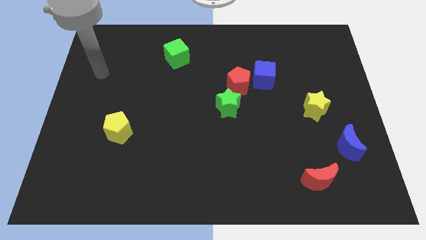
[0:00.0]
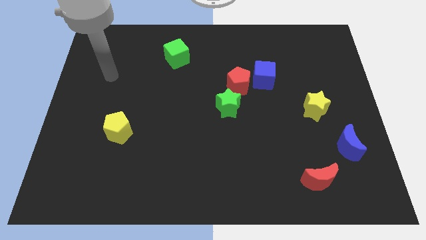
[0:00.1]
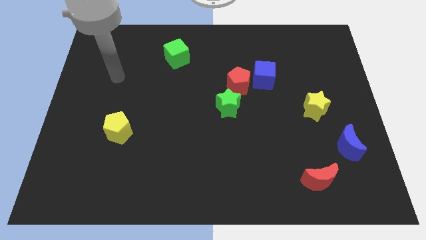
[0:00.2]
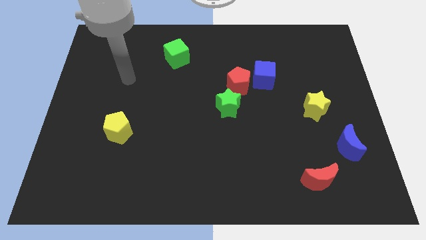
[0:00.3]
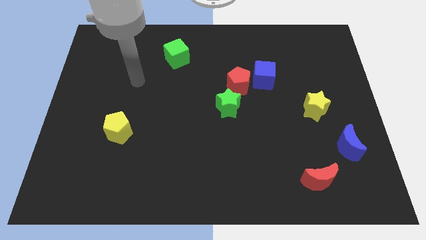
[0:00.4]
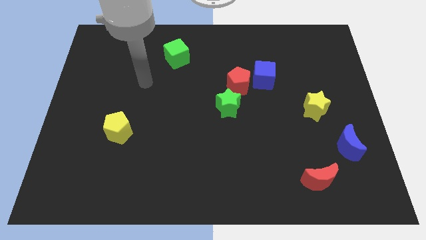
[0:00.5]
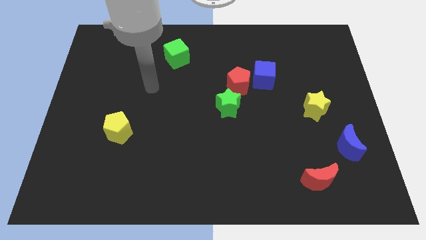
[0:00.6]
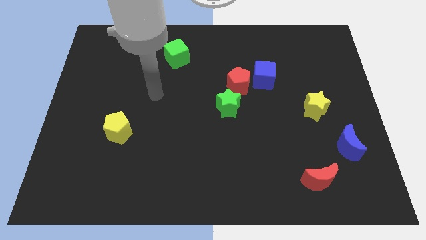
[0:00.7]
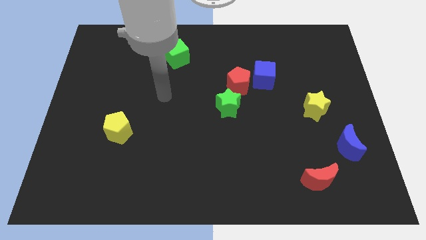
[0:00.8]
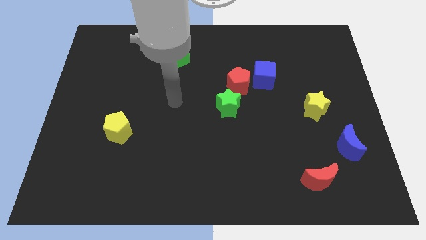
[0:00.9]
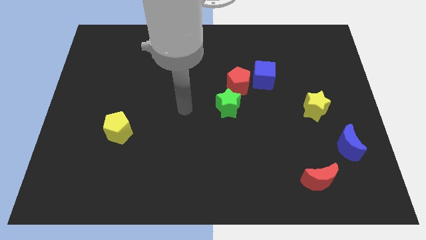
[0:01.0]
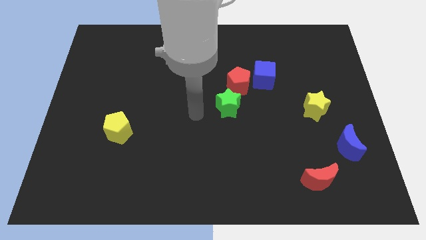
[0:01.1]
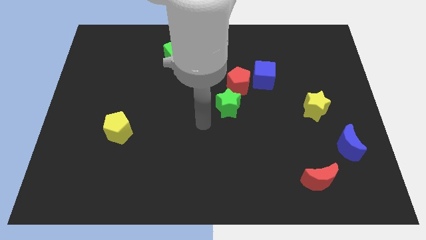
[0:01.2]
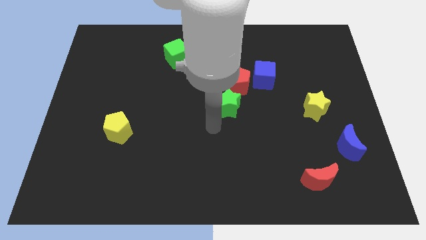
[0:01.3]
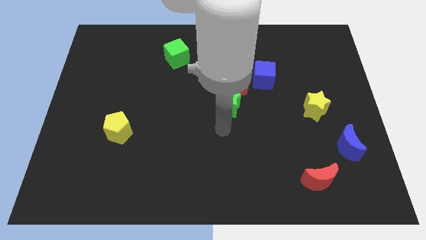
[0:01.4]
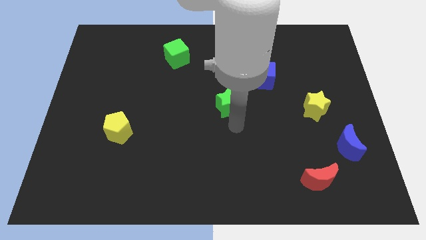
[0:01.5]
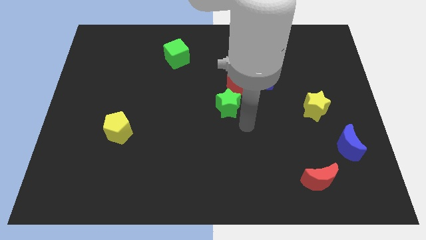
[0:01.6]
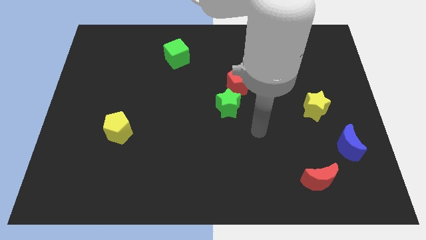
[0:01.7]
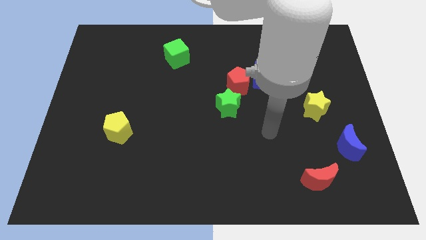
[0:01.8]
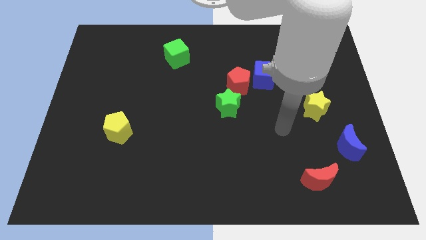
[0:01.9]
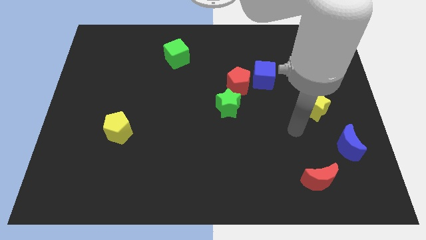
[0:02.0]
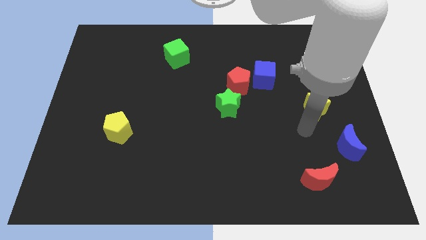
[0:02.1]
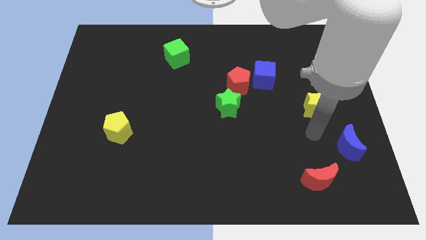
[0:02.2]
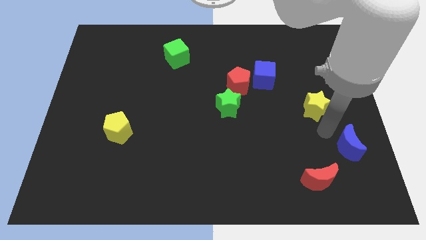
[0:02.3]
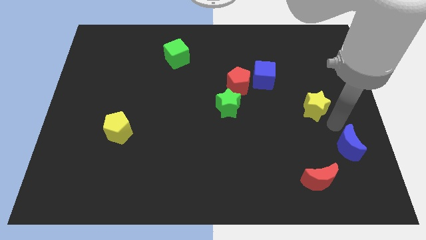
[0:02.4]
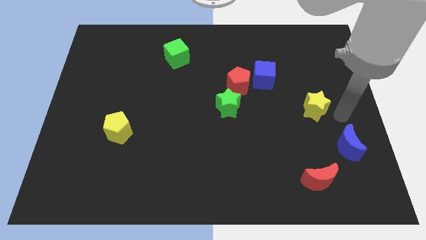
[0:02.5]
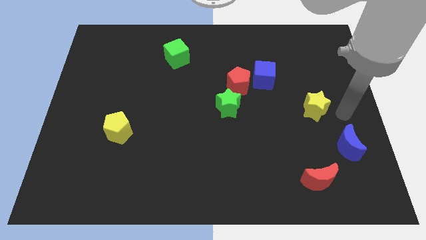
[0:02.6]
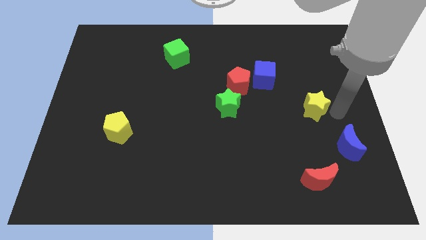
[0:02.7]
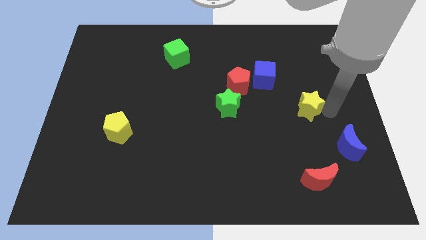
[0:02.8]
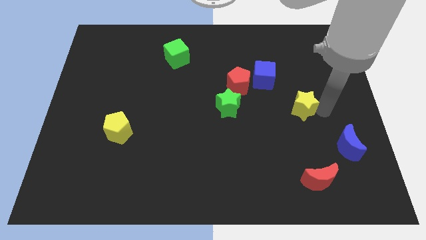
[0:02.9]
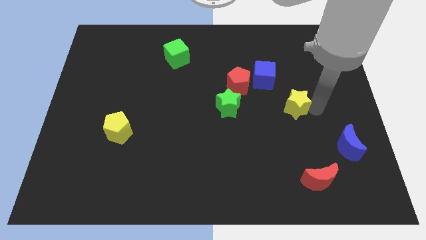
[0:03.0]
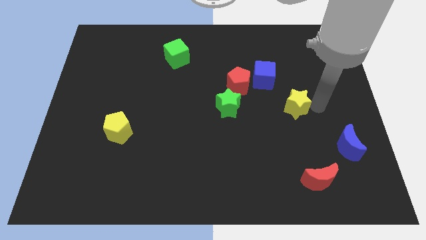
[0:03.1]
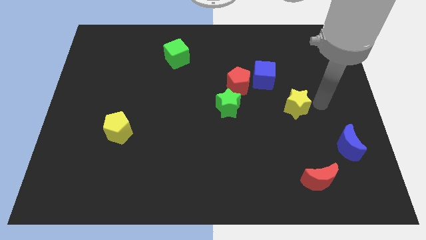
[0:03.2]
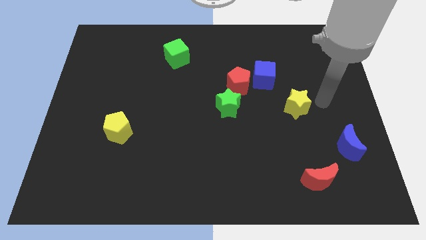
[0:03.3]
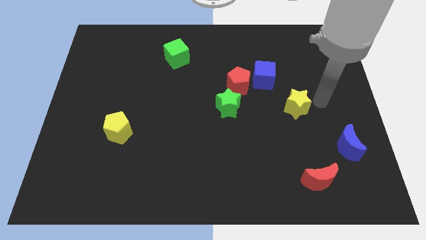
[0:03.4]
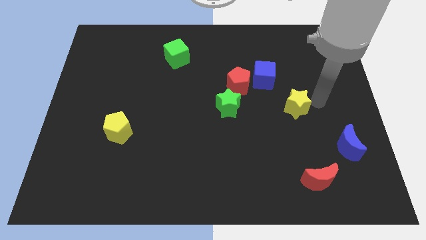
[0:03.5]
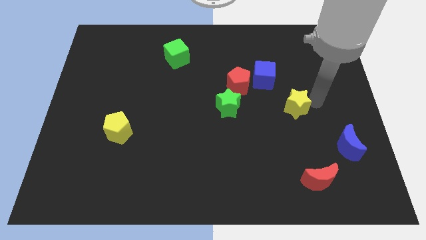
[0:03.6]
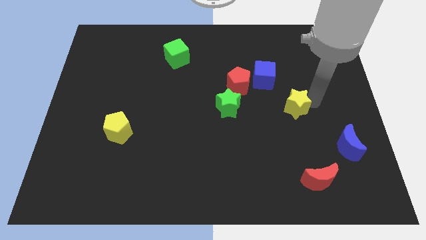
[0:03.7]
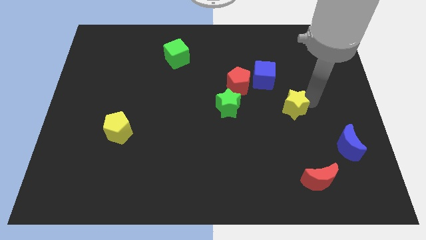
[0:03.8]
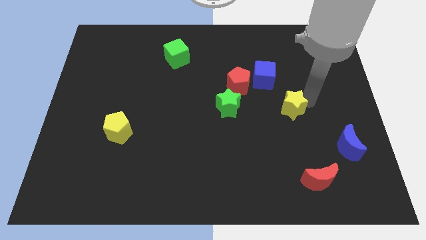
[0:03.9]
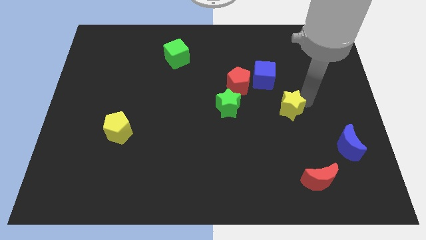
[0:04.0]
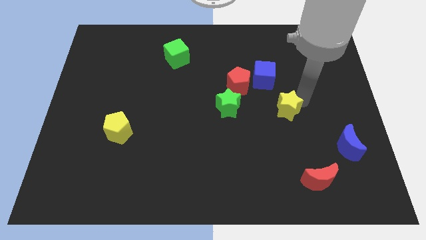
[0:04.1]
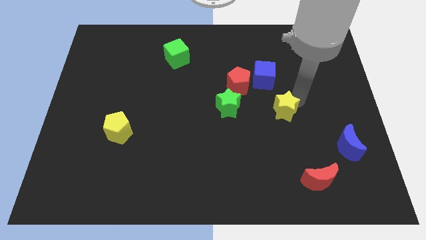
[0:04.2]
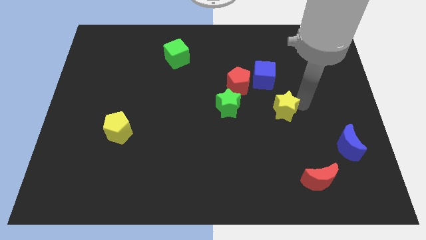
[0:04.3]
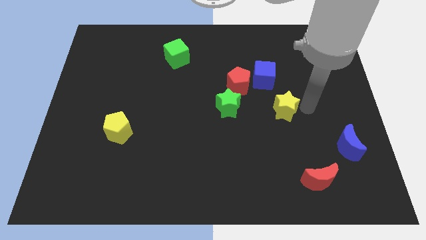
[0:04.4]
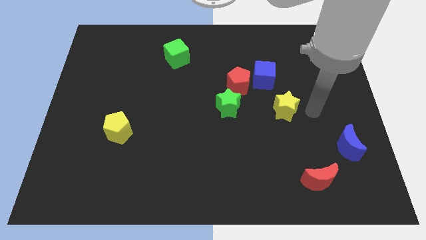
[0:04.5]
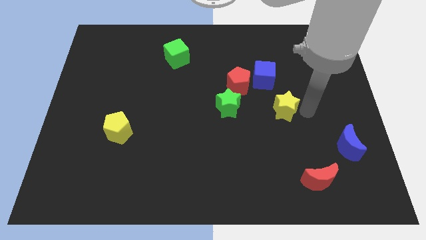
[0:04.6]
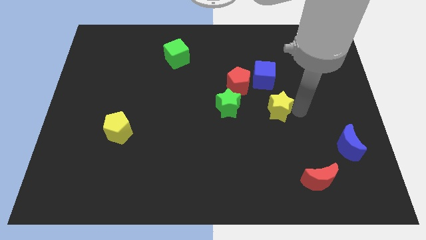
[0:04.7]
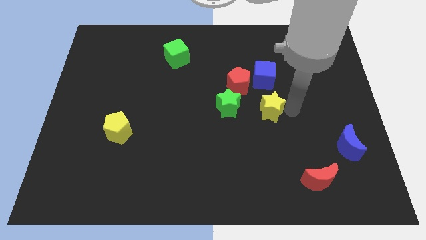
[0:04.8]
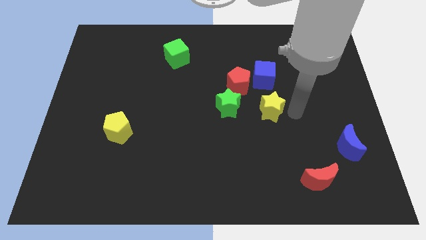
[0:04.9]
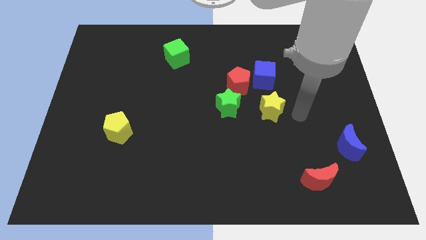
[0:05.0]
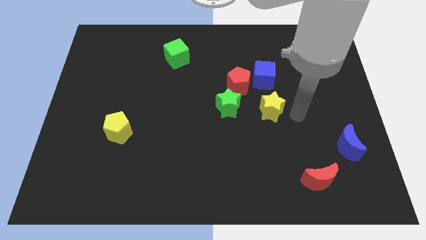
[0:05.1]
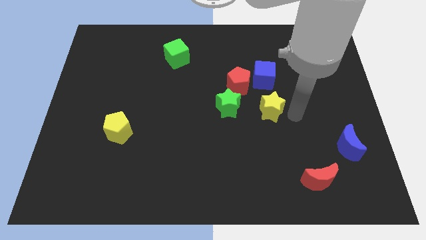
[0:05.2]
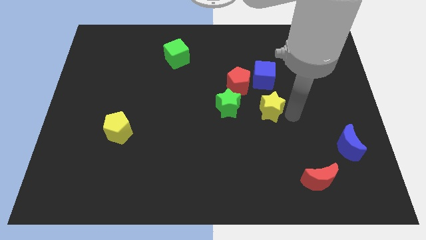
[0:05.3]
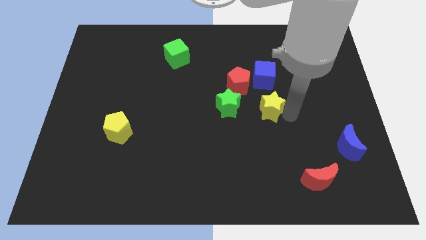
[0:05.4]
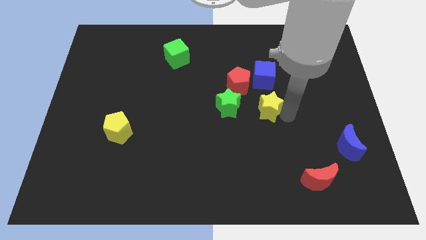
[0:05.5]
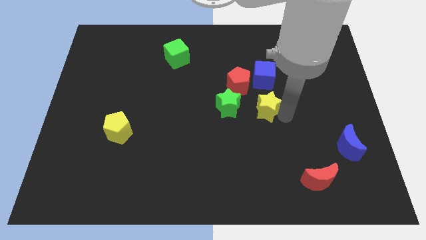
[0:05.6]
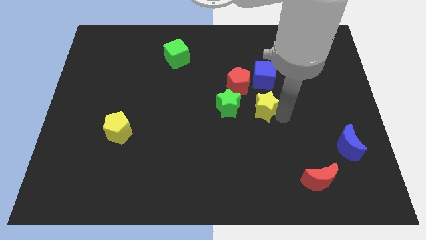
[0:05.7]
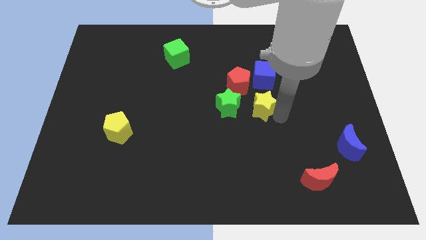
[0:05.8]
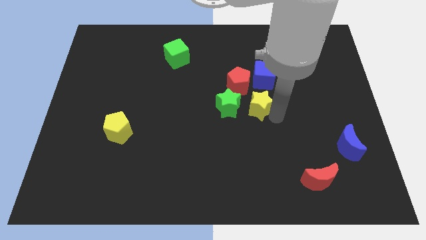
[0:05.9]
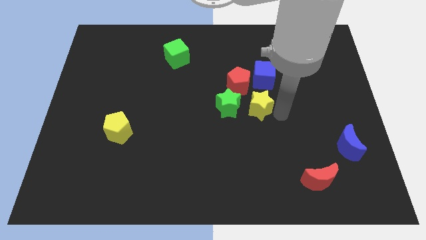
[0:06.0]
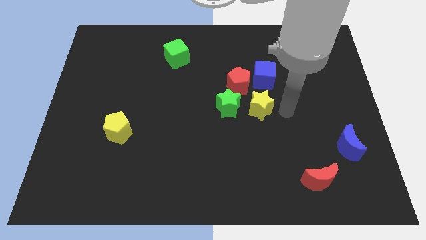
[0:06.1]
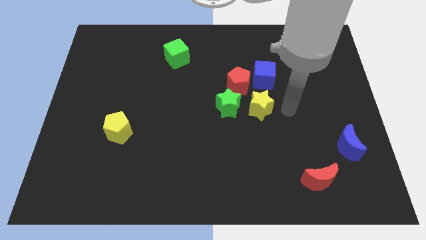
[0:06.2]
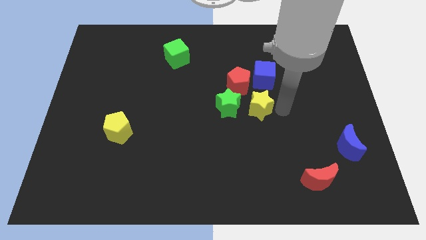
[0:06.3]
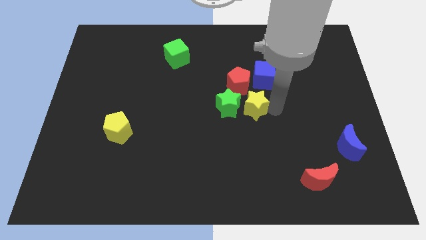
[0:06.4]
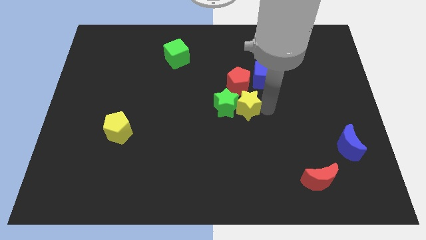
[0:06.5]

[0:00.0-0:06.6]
move the yellow star towards the green star
